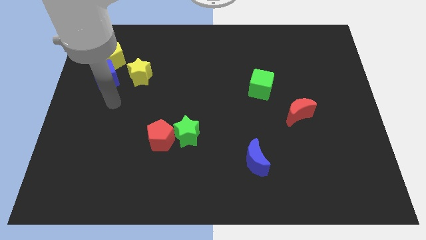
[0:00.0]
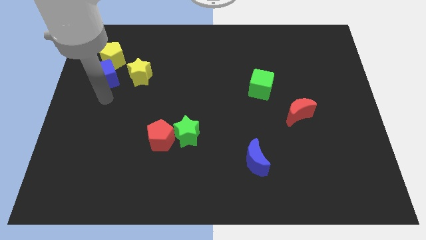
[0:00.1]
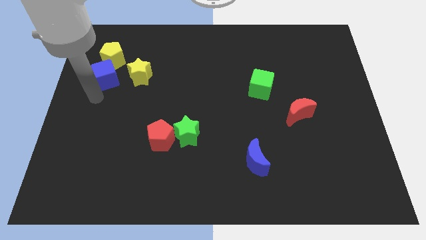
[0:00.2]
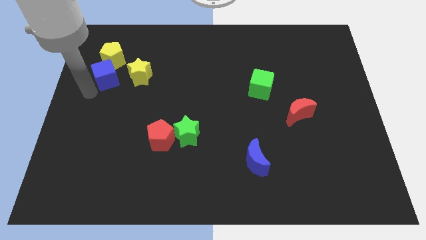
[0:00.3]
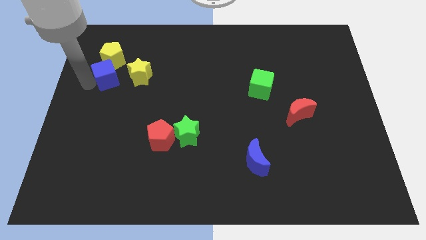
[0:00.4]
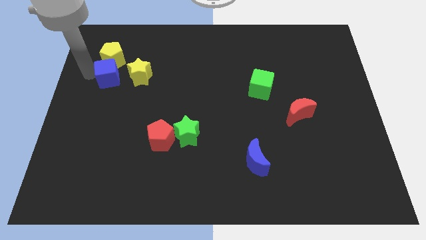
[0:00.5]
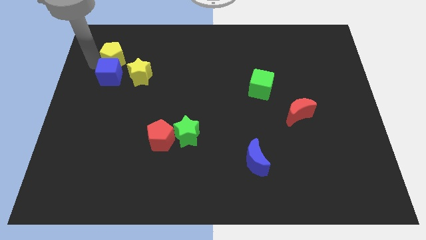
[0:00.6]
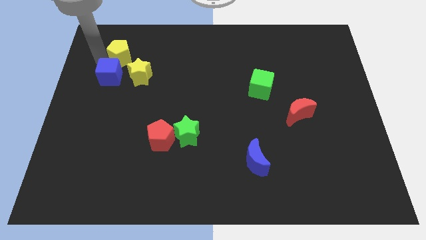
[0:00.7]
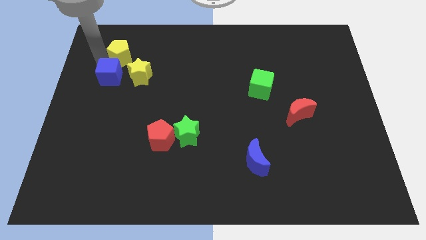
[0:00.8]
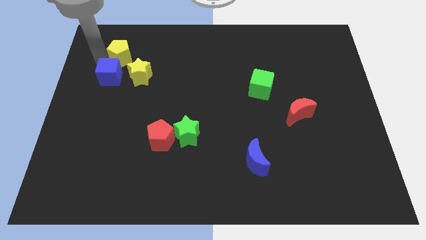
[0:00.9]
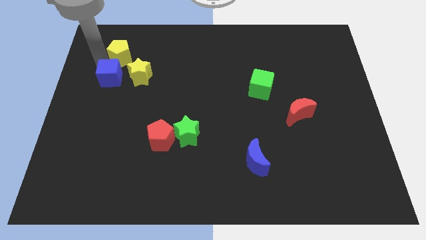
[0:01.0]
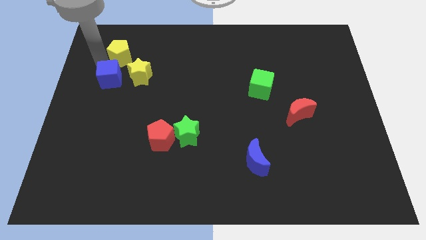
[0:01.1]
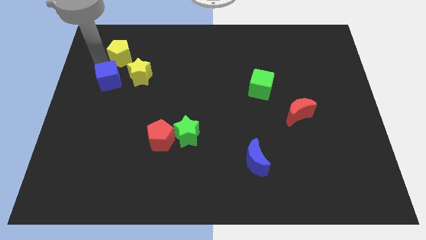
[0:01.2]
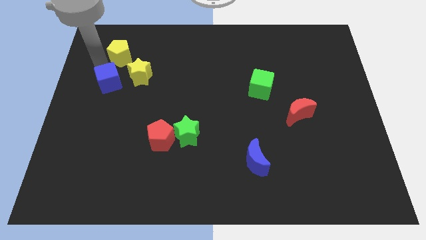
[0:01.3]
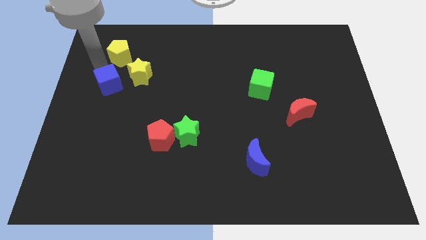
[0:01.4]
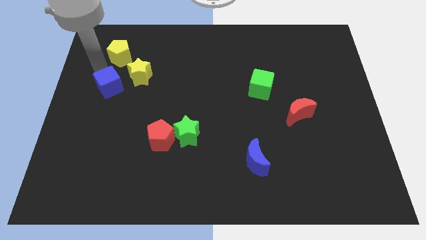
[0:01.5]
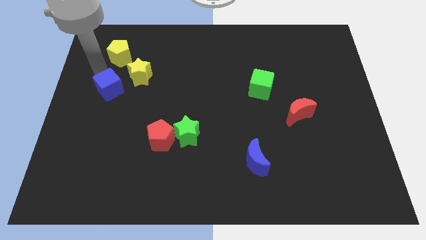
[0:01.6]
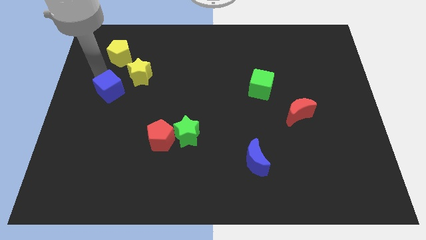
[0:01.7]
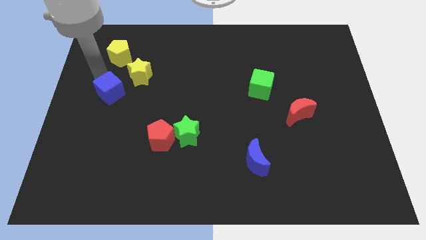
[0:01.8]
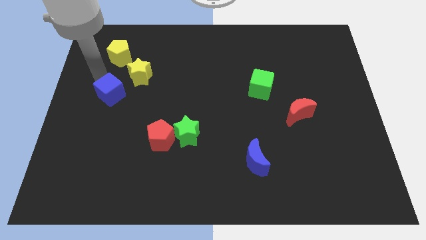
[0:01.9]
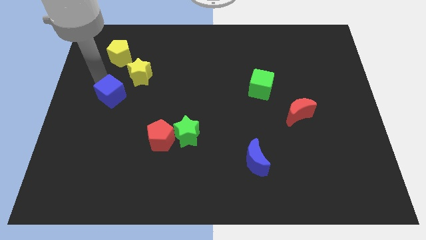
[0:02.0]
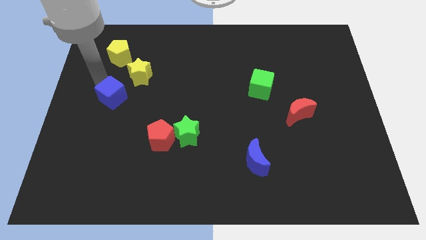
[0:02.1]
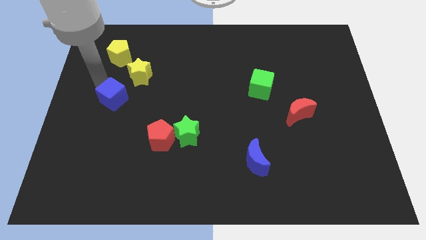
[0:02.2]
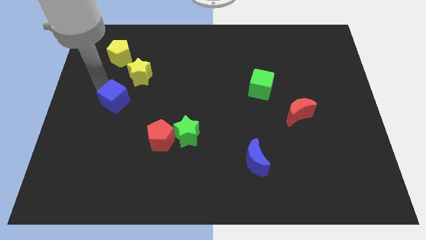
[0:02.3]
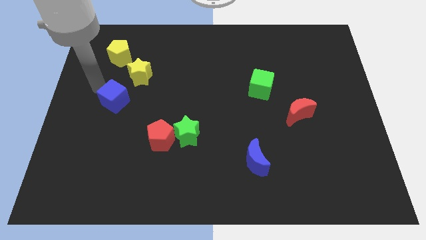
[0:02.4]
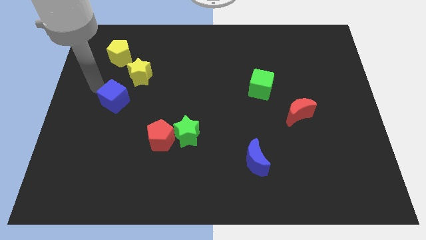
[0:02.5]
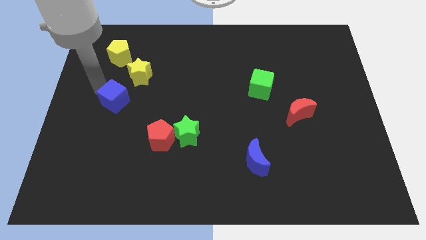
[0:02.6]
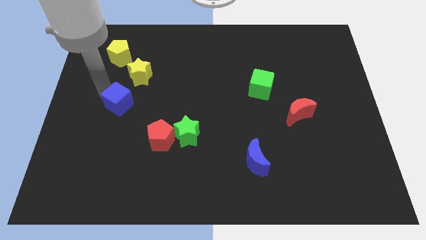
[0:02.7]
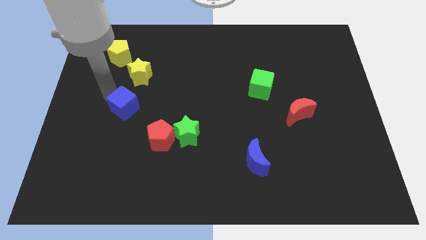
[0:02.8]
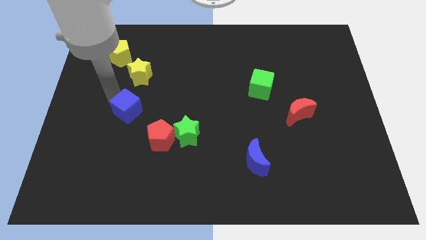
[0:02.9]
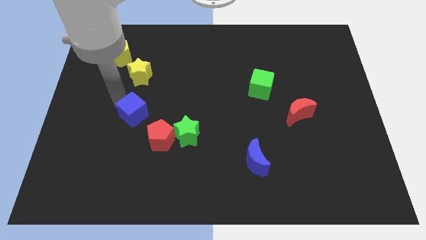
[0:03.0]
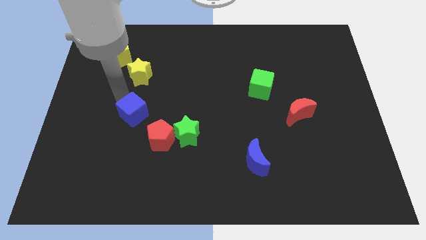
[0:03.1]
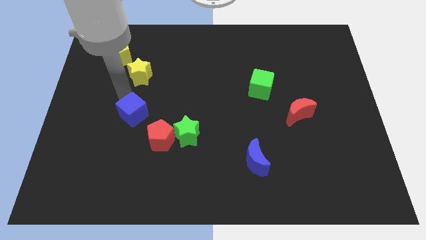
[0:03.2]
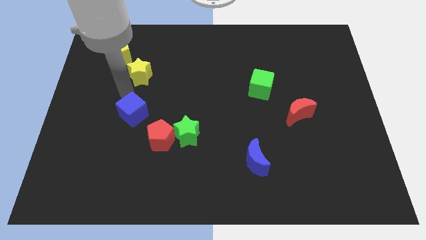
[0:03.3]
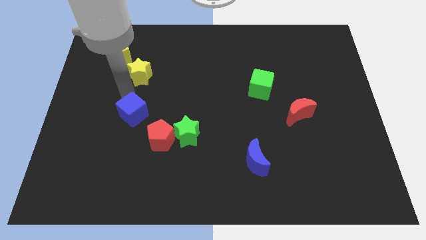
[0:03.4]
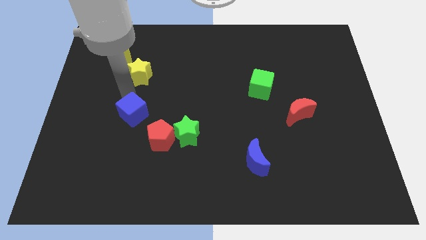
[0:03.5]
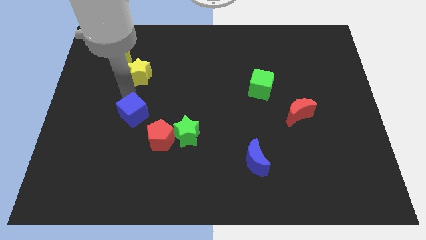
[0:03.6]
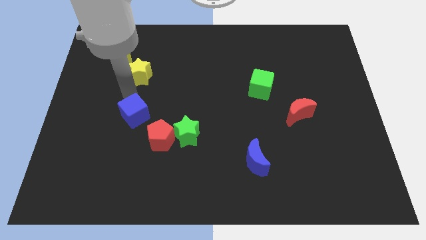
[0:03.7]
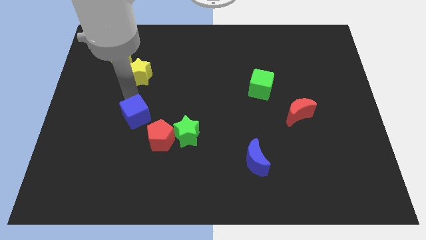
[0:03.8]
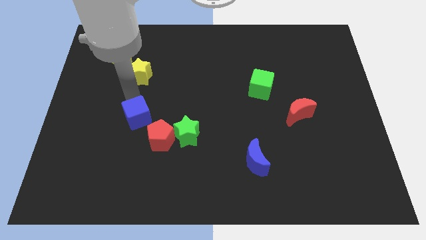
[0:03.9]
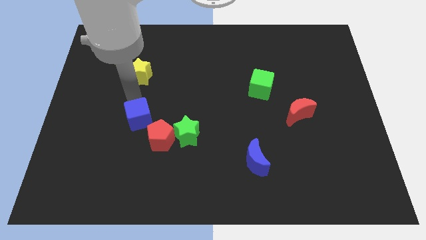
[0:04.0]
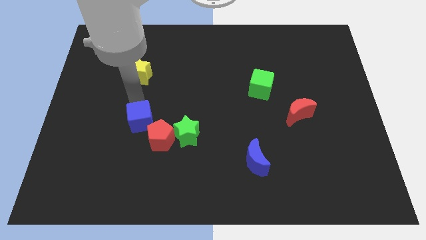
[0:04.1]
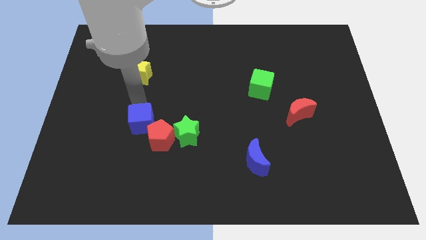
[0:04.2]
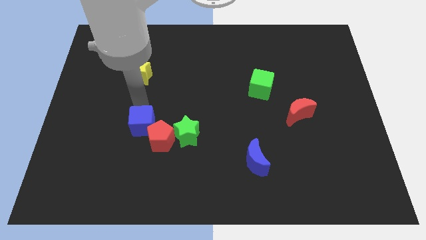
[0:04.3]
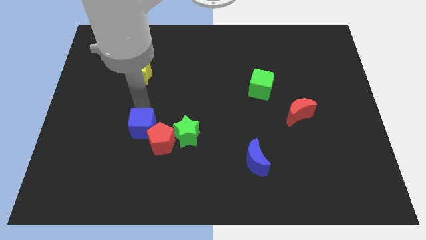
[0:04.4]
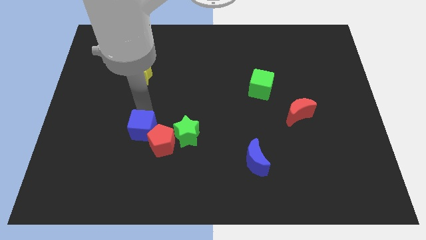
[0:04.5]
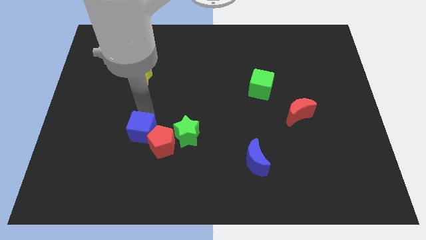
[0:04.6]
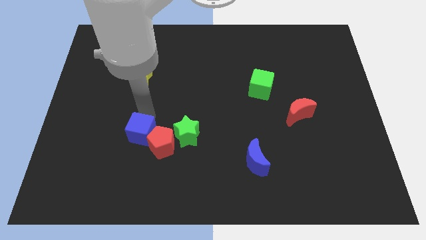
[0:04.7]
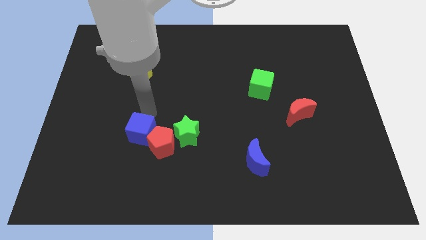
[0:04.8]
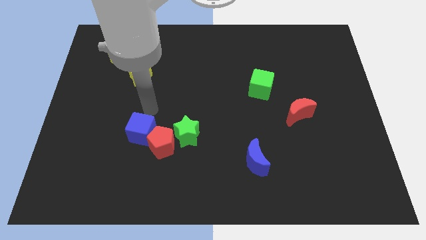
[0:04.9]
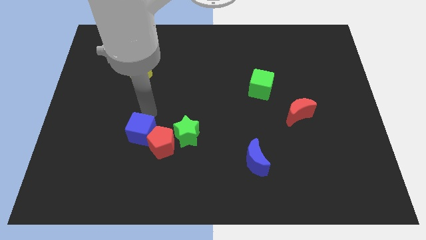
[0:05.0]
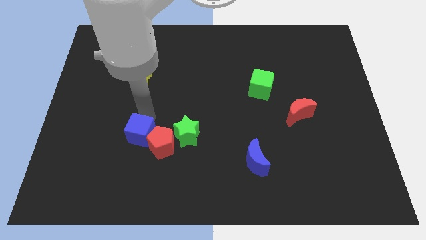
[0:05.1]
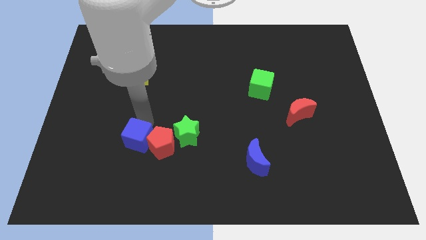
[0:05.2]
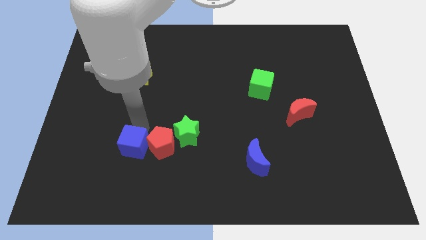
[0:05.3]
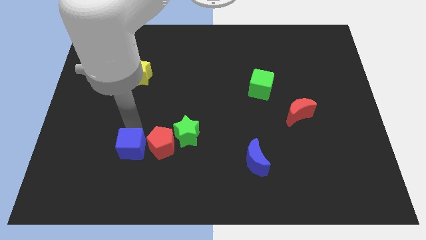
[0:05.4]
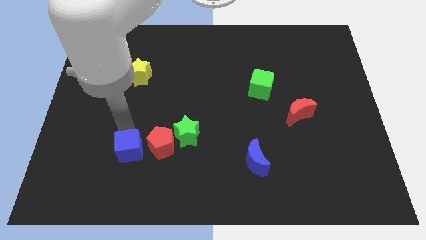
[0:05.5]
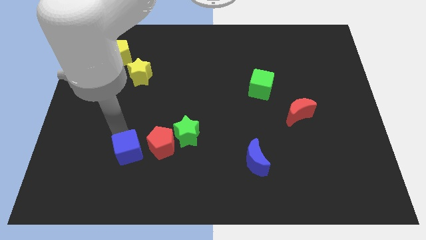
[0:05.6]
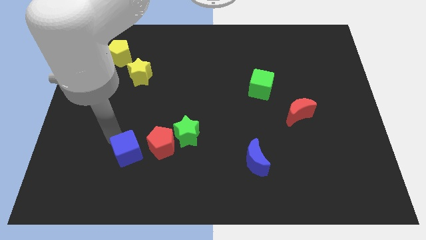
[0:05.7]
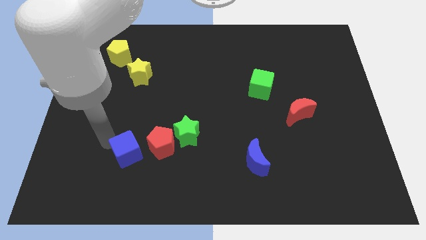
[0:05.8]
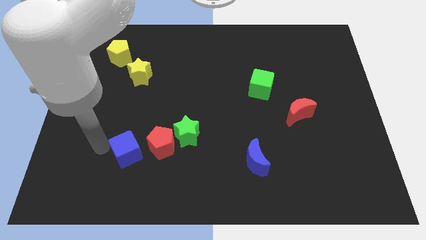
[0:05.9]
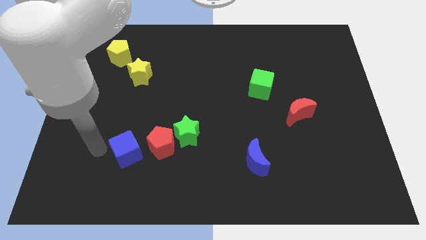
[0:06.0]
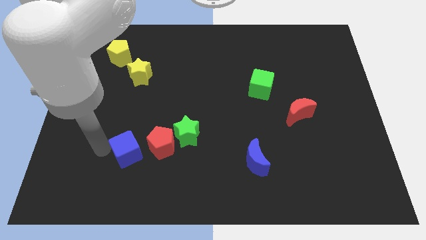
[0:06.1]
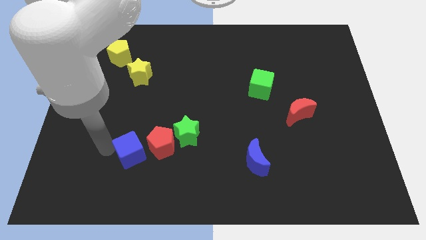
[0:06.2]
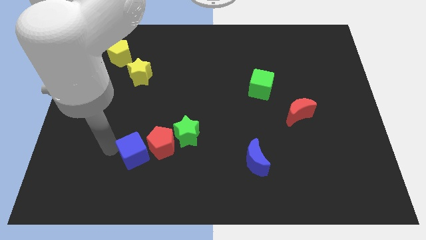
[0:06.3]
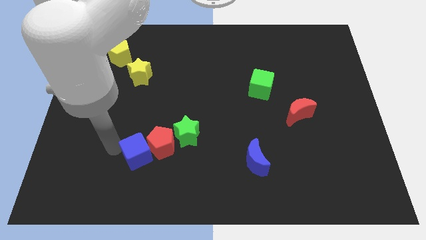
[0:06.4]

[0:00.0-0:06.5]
push the blue cube to the bottom left side of the green star

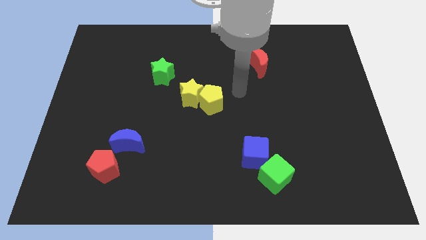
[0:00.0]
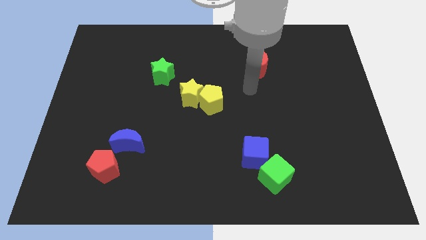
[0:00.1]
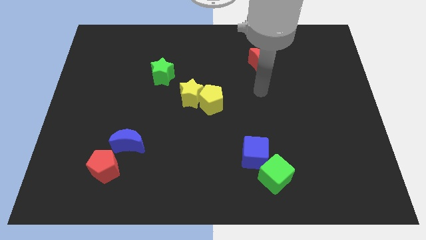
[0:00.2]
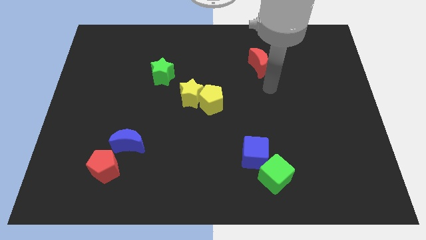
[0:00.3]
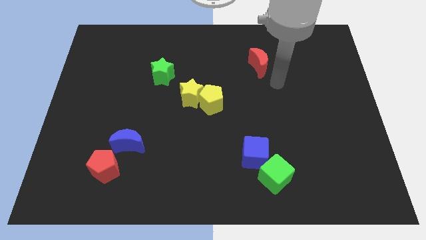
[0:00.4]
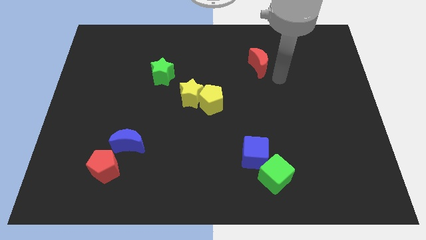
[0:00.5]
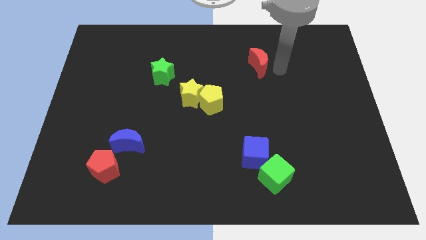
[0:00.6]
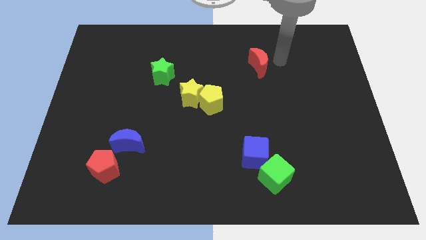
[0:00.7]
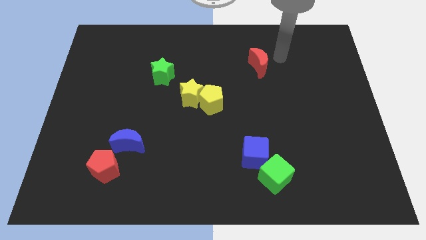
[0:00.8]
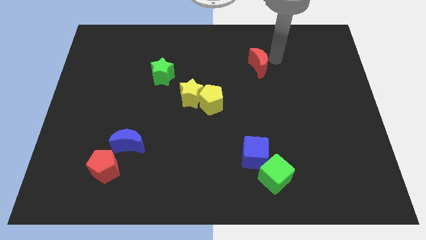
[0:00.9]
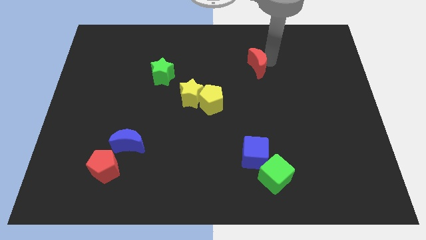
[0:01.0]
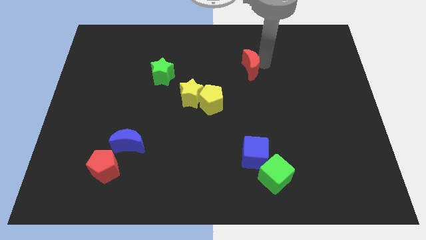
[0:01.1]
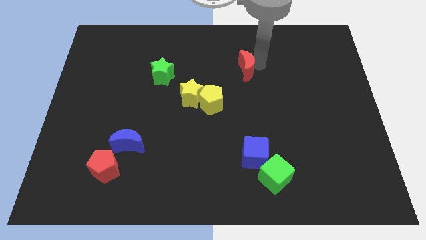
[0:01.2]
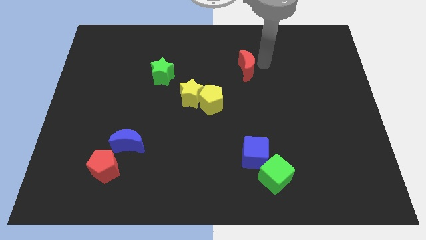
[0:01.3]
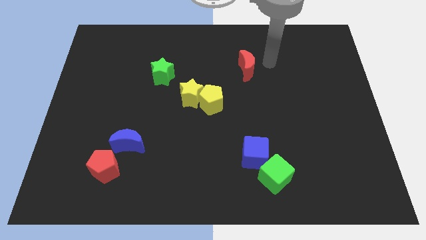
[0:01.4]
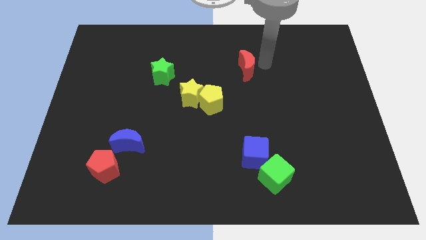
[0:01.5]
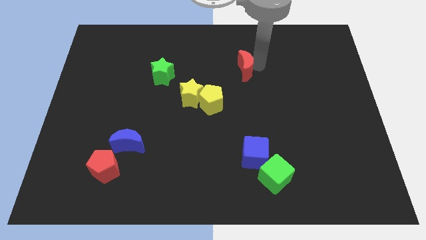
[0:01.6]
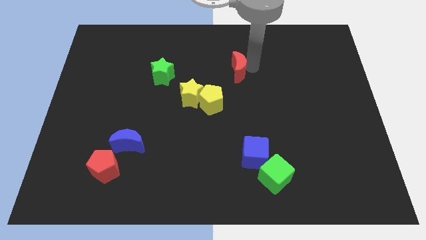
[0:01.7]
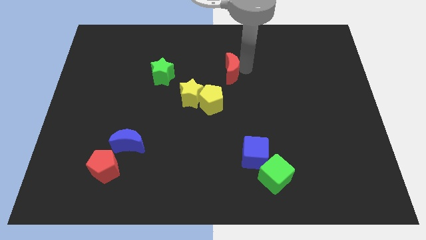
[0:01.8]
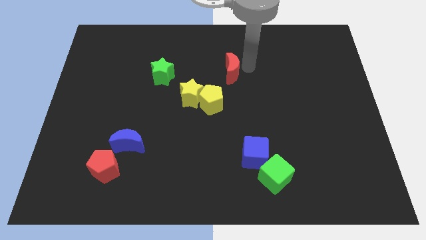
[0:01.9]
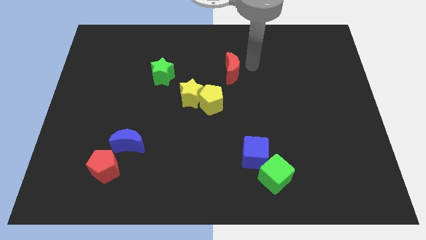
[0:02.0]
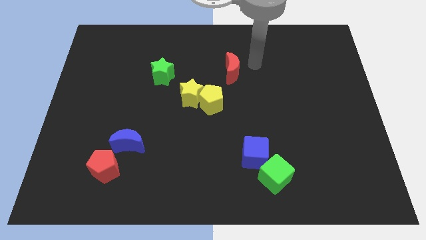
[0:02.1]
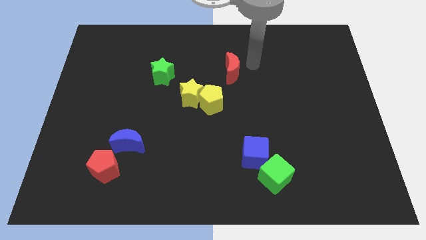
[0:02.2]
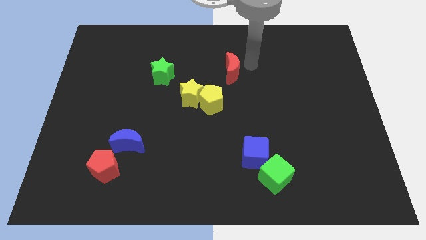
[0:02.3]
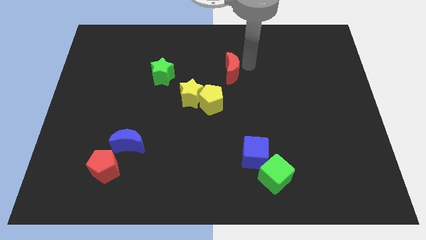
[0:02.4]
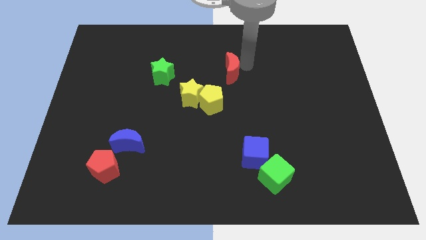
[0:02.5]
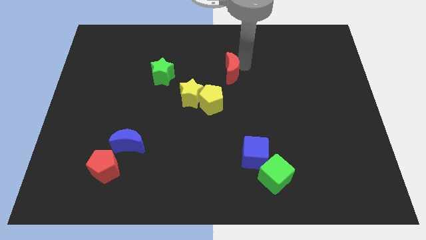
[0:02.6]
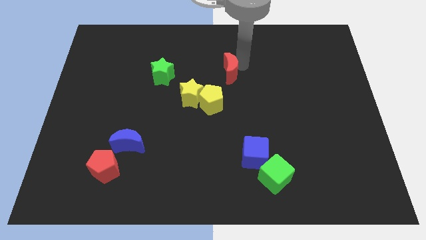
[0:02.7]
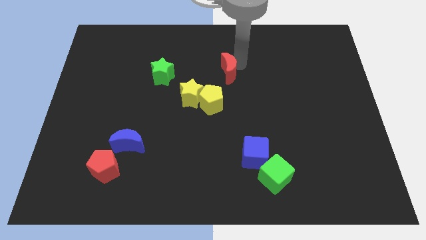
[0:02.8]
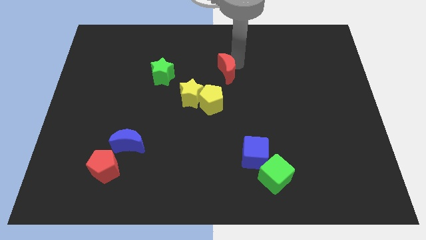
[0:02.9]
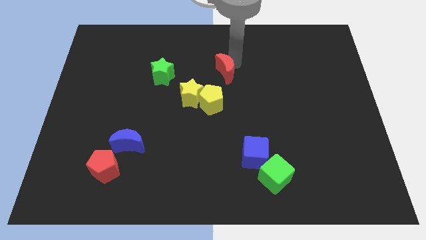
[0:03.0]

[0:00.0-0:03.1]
move the red moon to the right of the green star
